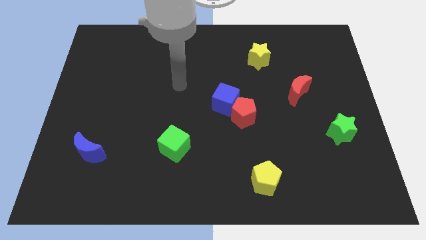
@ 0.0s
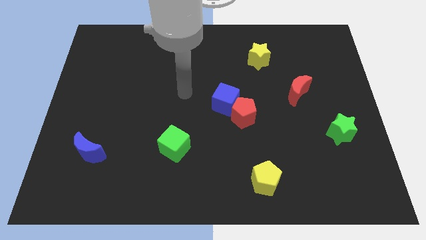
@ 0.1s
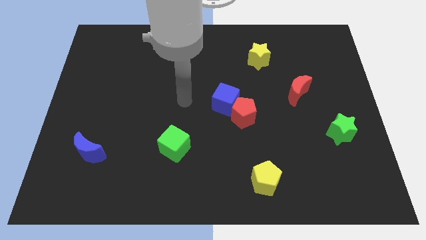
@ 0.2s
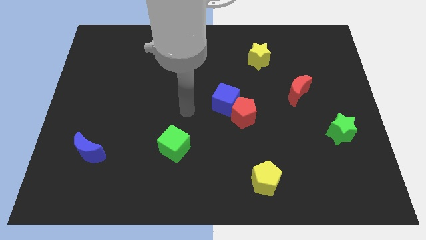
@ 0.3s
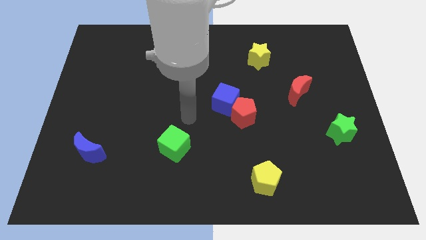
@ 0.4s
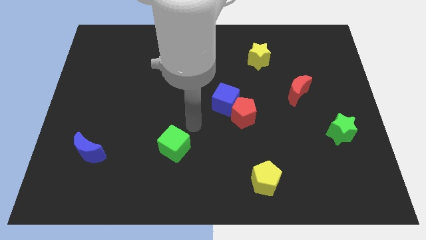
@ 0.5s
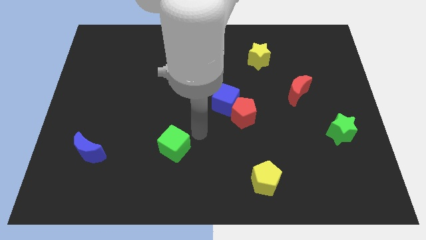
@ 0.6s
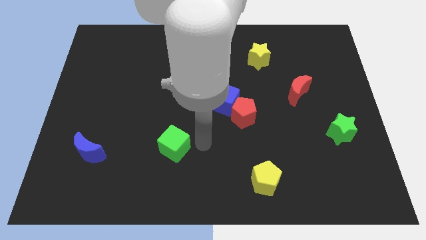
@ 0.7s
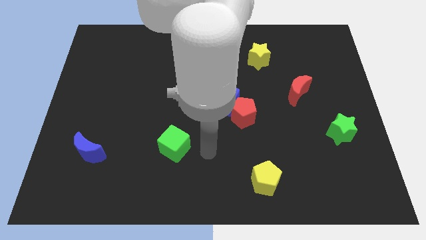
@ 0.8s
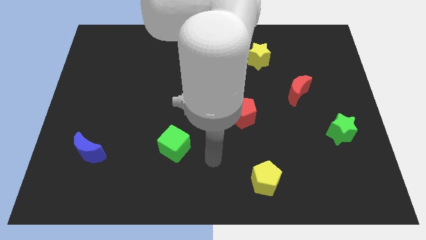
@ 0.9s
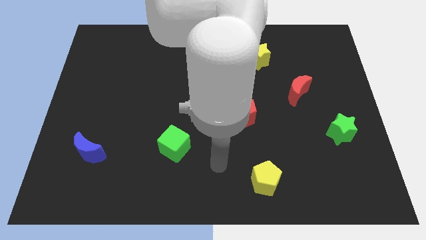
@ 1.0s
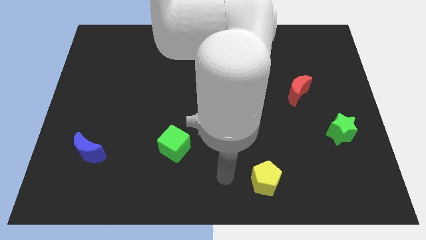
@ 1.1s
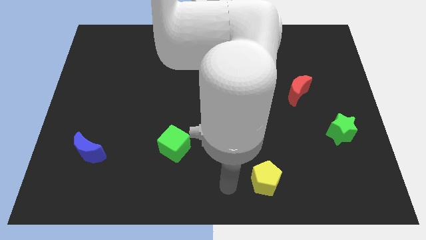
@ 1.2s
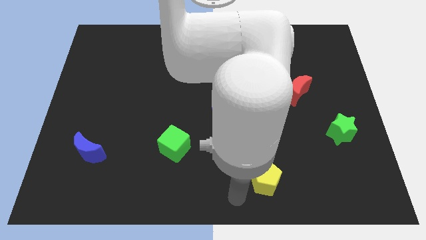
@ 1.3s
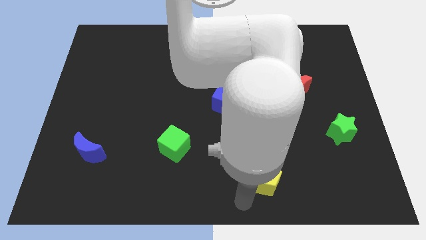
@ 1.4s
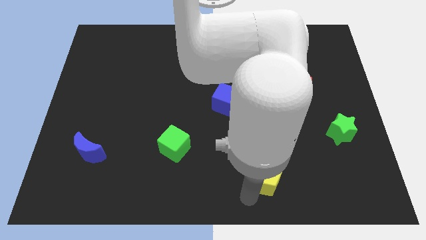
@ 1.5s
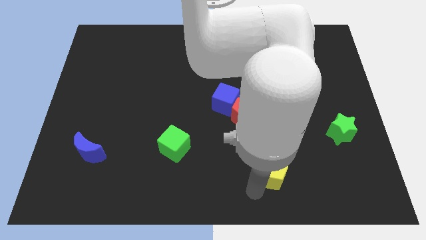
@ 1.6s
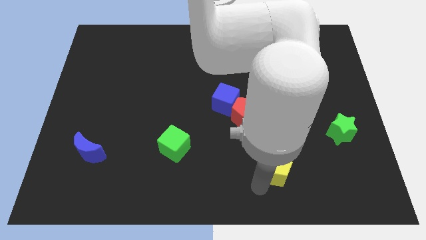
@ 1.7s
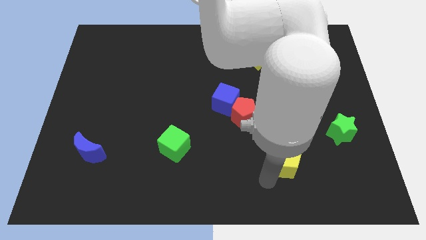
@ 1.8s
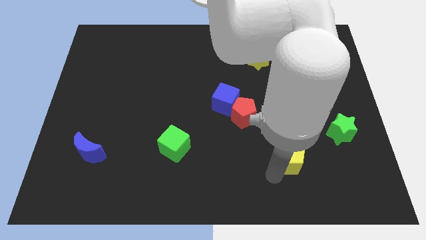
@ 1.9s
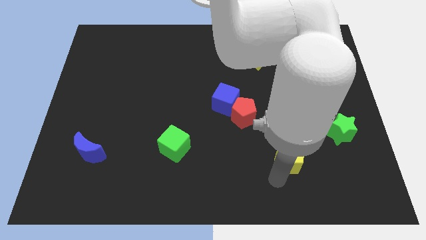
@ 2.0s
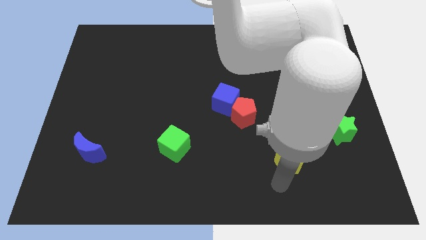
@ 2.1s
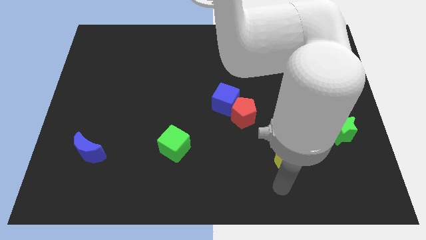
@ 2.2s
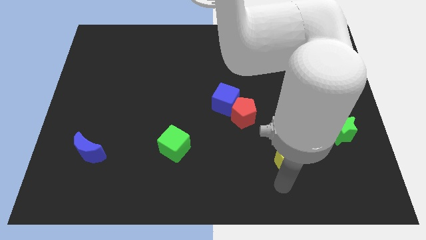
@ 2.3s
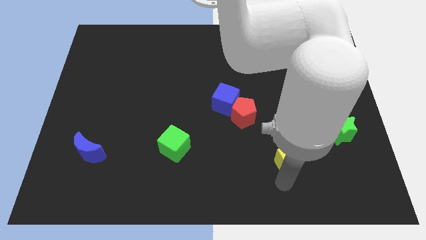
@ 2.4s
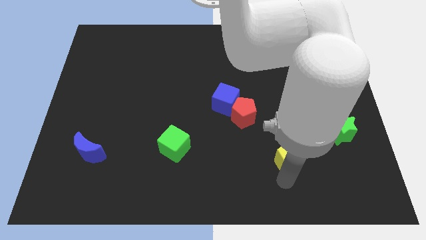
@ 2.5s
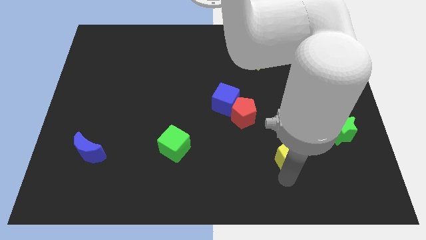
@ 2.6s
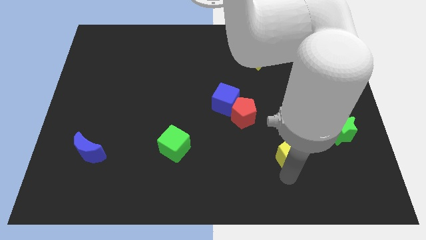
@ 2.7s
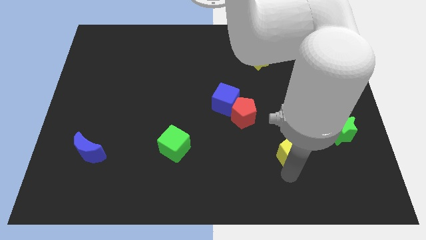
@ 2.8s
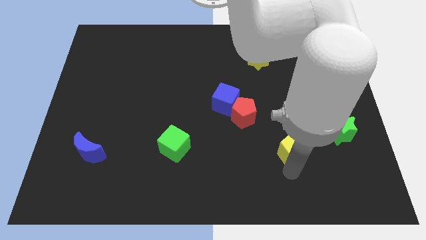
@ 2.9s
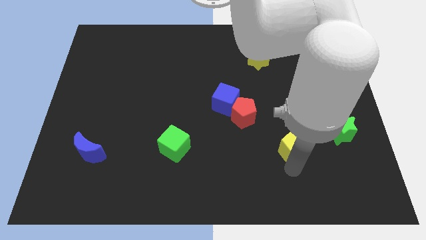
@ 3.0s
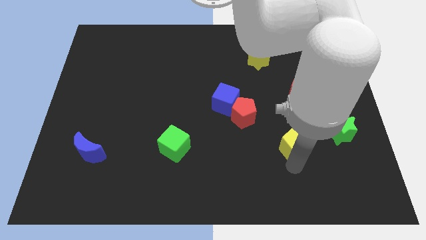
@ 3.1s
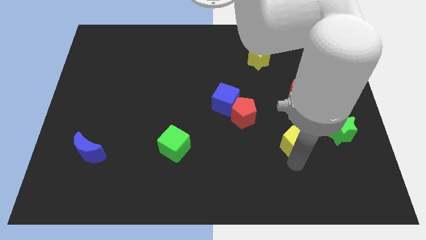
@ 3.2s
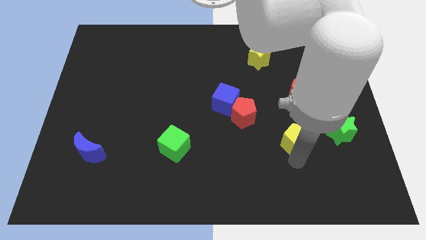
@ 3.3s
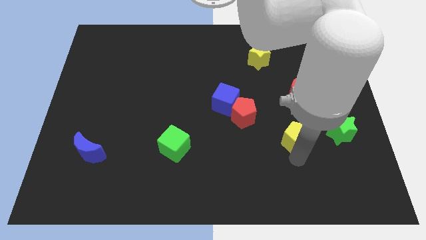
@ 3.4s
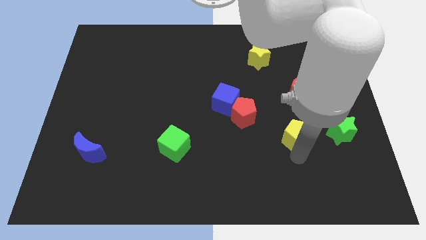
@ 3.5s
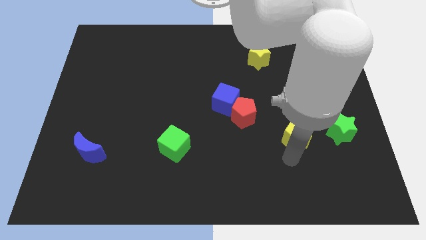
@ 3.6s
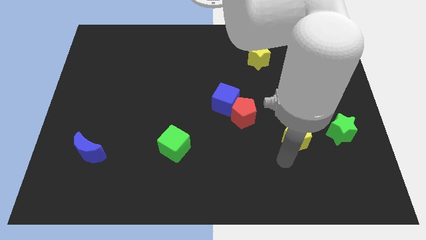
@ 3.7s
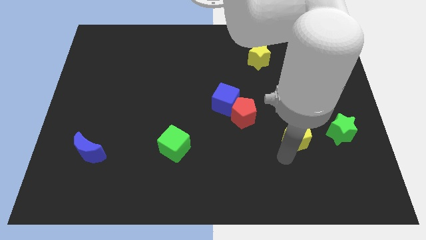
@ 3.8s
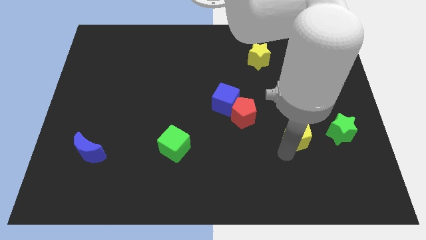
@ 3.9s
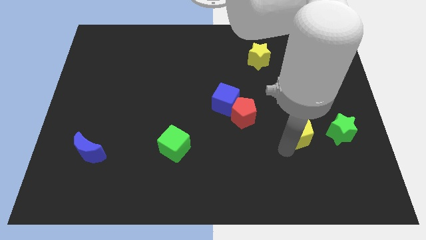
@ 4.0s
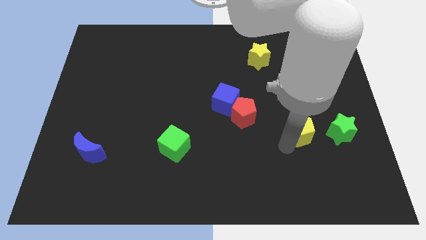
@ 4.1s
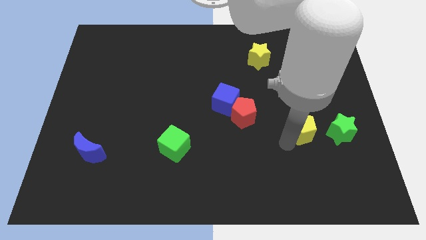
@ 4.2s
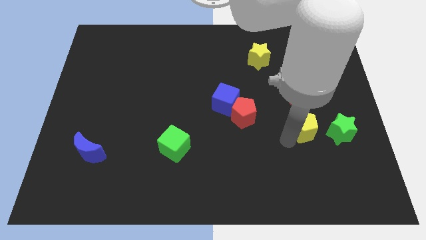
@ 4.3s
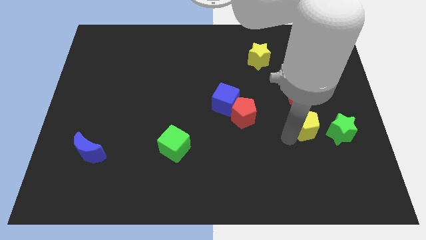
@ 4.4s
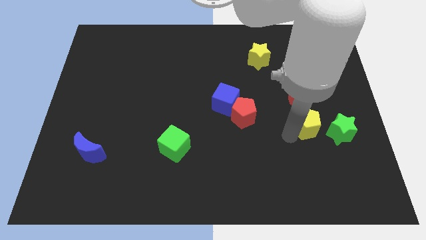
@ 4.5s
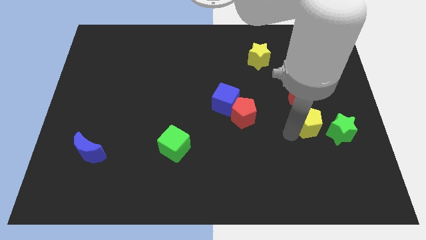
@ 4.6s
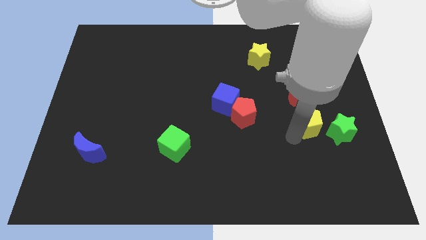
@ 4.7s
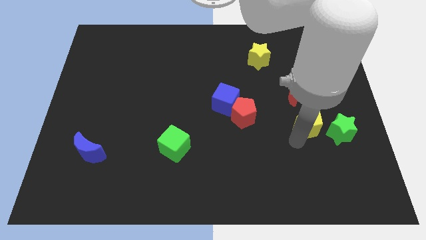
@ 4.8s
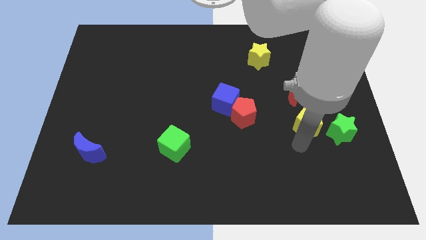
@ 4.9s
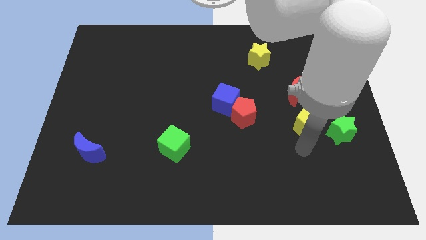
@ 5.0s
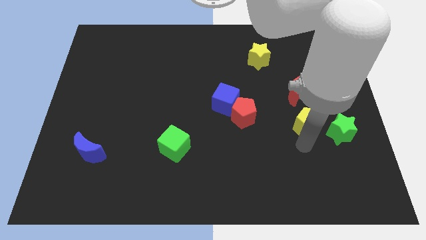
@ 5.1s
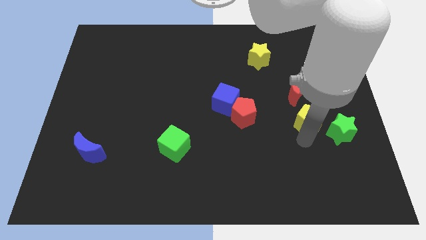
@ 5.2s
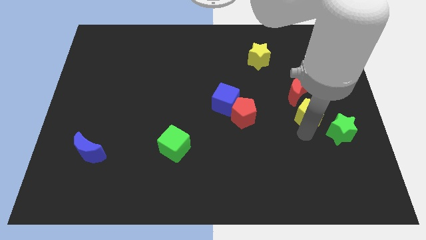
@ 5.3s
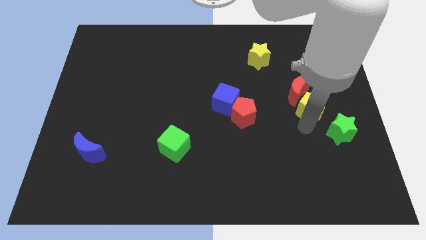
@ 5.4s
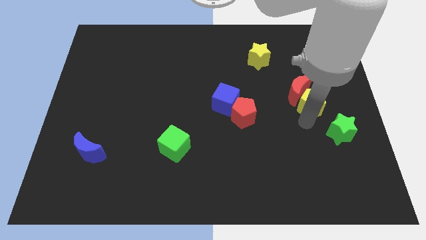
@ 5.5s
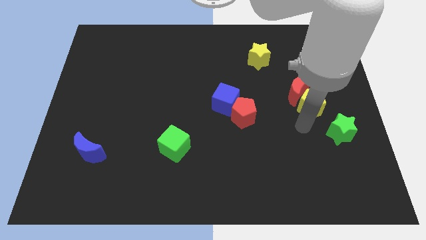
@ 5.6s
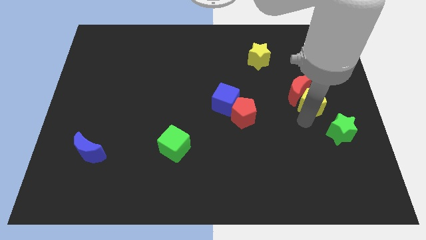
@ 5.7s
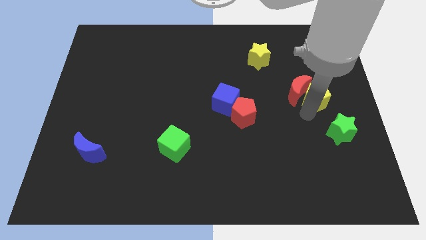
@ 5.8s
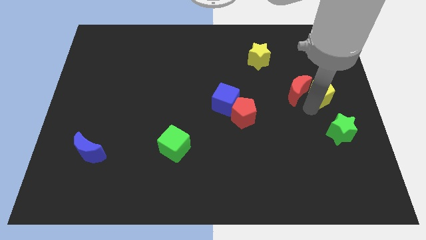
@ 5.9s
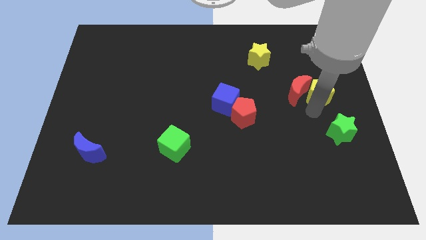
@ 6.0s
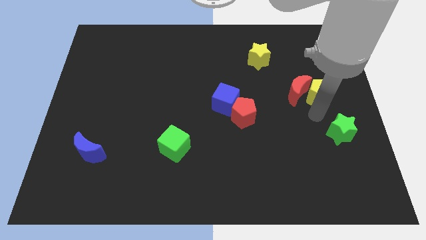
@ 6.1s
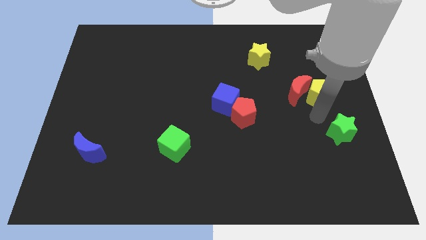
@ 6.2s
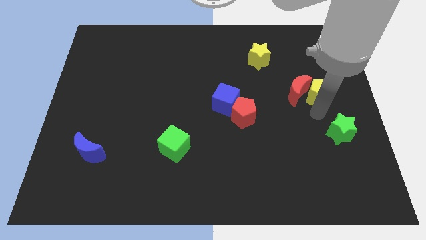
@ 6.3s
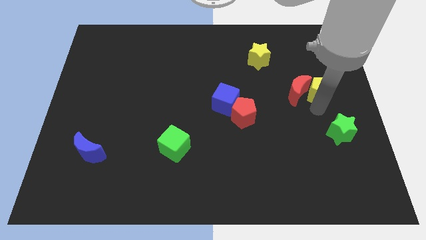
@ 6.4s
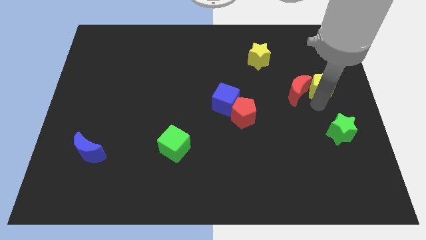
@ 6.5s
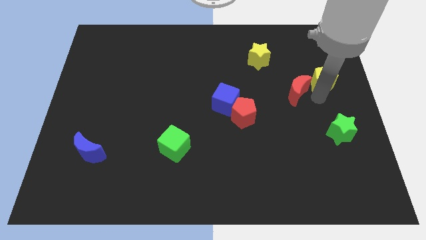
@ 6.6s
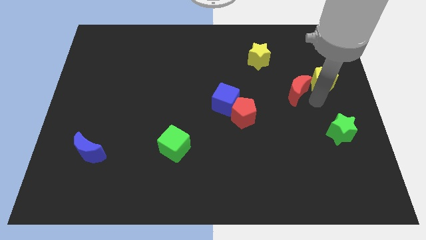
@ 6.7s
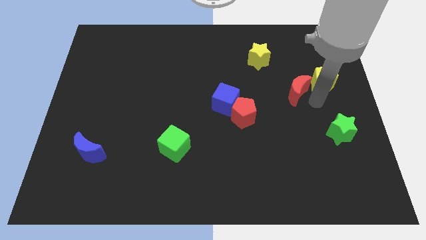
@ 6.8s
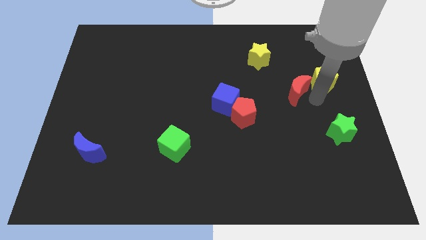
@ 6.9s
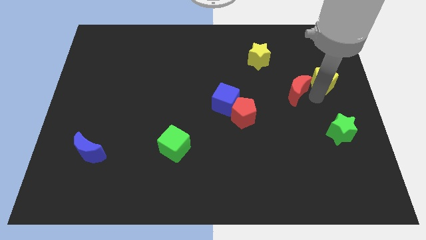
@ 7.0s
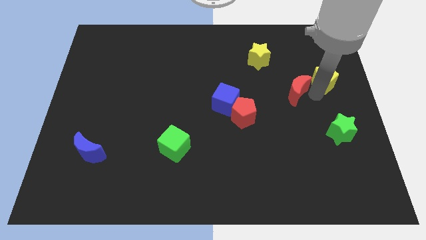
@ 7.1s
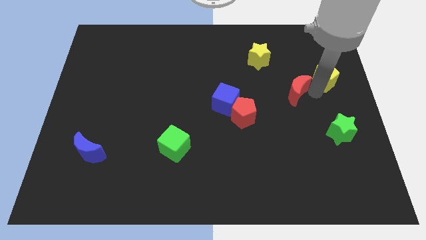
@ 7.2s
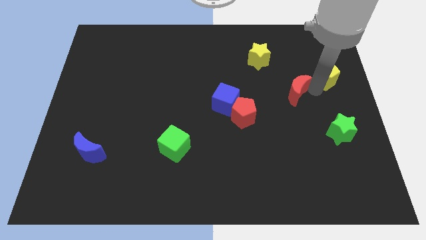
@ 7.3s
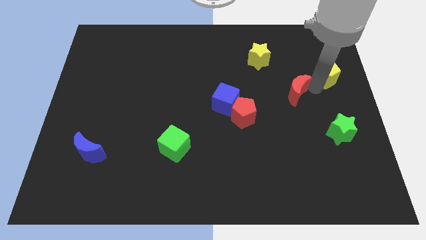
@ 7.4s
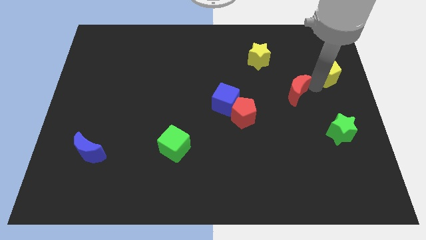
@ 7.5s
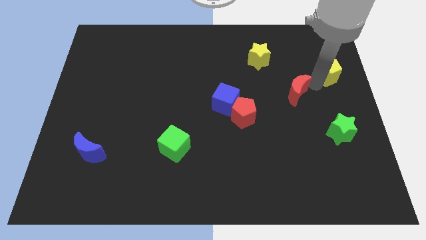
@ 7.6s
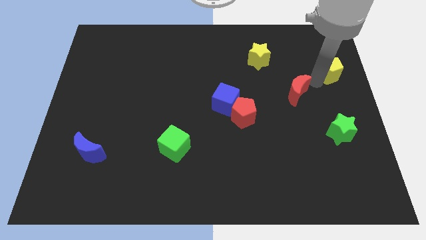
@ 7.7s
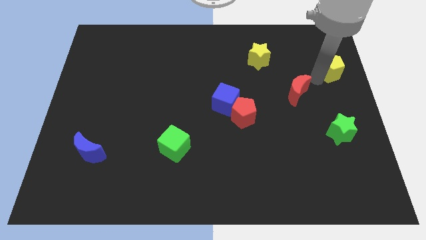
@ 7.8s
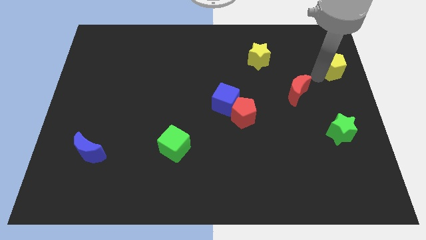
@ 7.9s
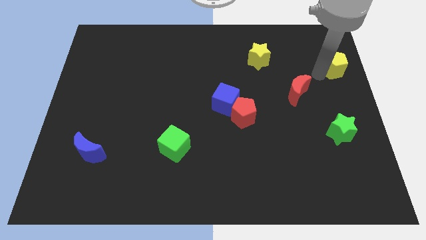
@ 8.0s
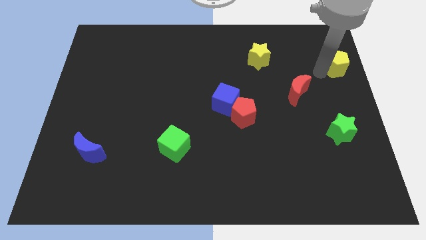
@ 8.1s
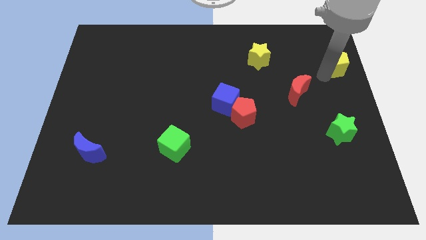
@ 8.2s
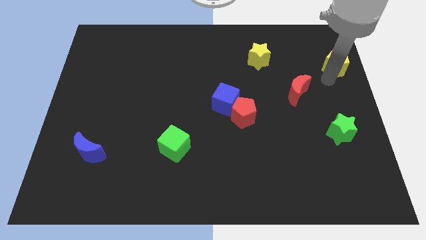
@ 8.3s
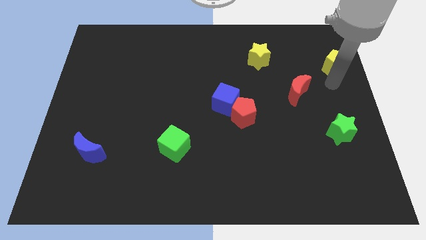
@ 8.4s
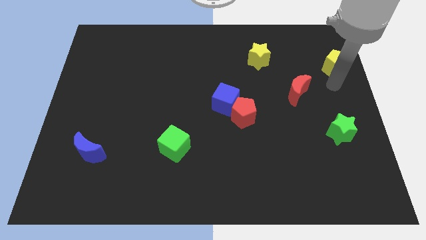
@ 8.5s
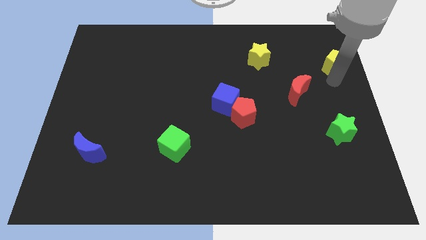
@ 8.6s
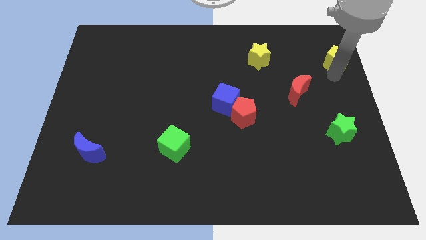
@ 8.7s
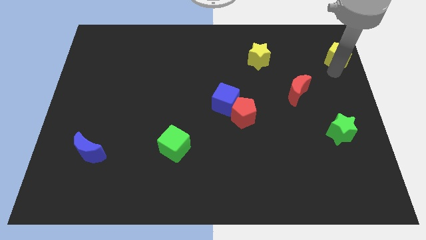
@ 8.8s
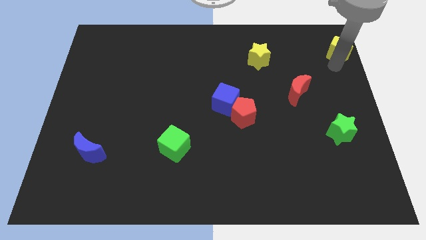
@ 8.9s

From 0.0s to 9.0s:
move the yellow pentagon to the upper right corner
